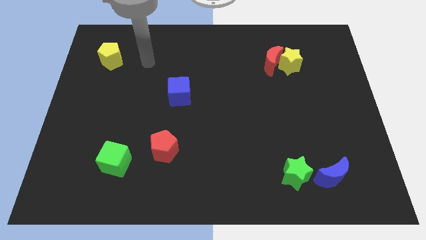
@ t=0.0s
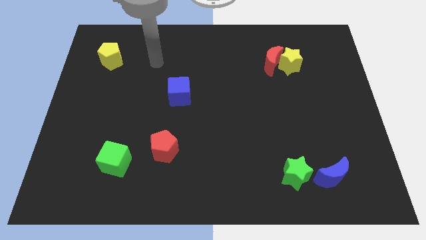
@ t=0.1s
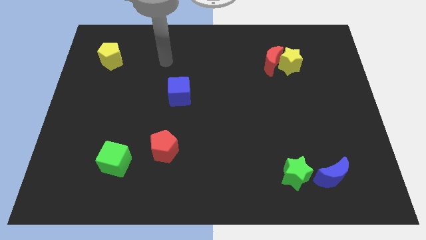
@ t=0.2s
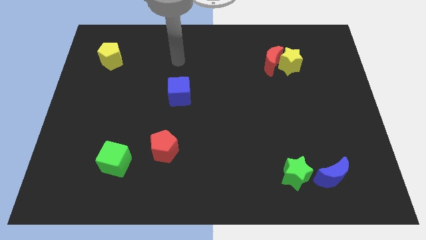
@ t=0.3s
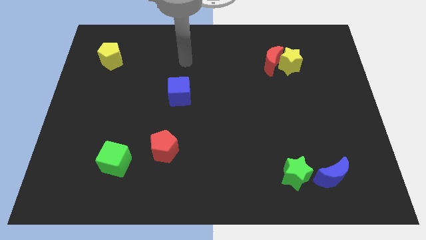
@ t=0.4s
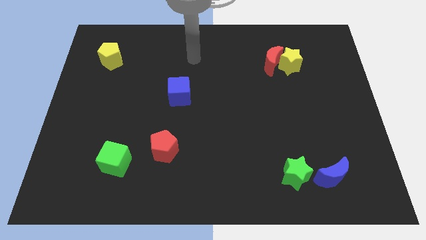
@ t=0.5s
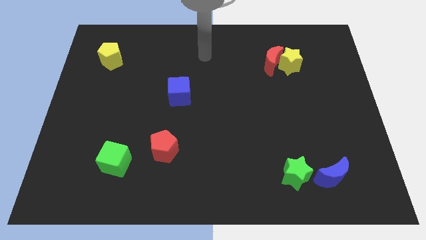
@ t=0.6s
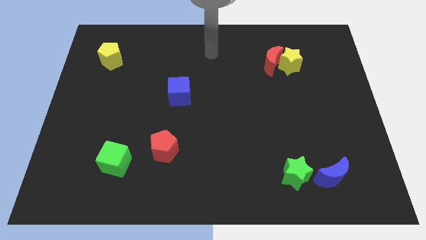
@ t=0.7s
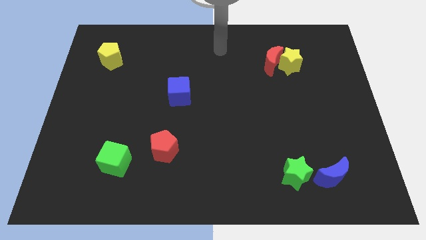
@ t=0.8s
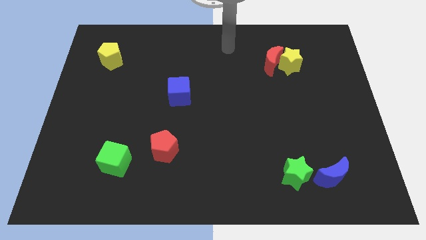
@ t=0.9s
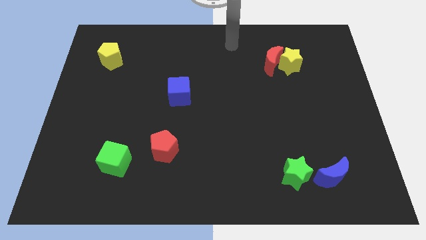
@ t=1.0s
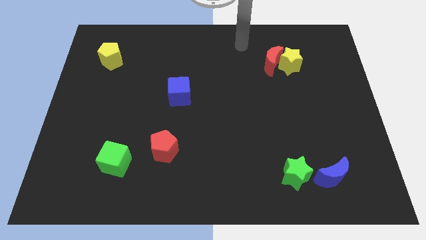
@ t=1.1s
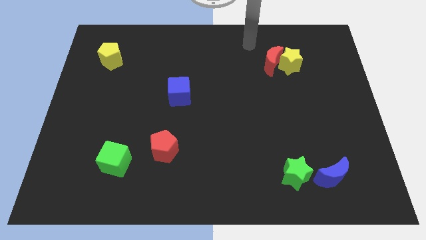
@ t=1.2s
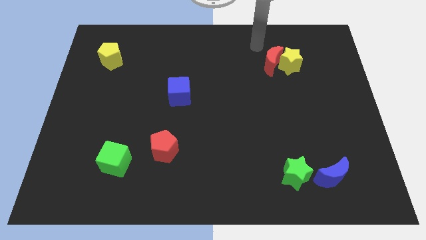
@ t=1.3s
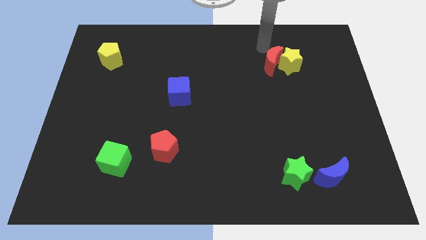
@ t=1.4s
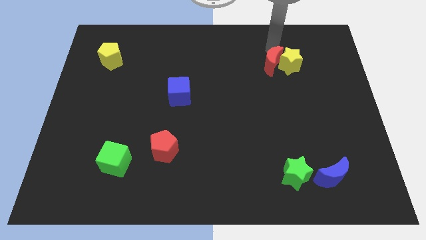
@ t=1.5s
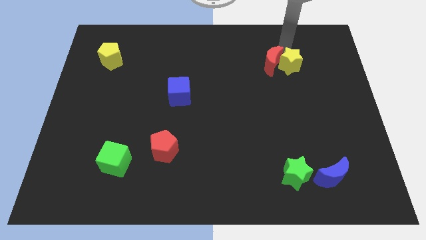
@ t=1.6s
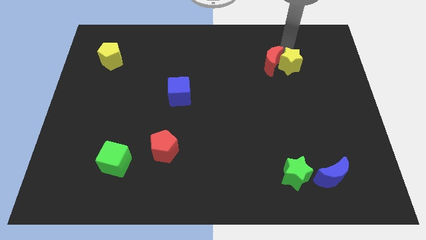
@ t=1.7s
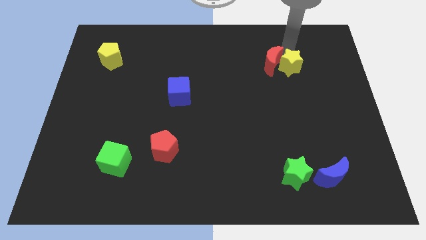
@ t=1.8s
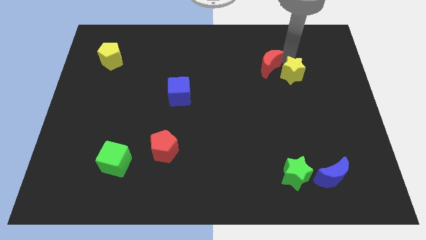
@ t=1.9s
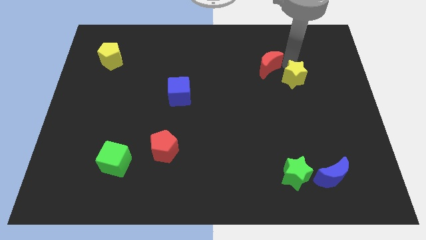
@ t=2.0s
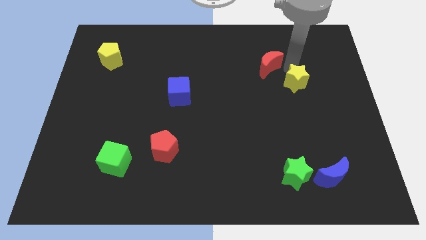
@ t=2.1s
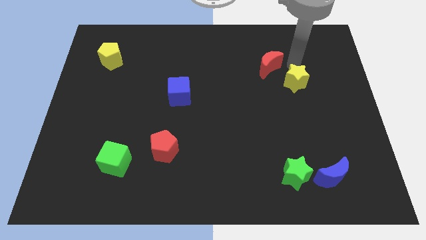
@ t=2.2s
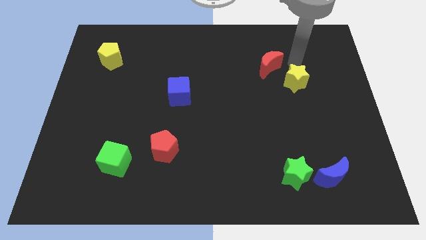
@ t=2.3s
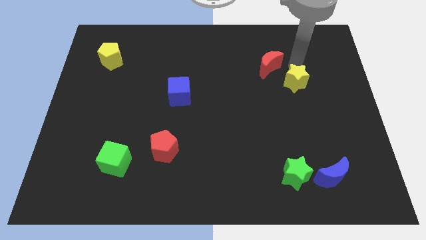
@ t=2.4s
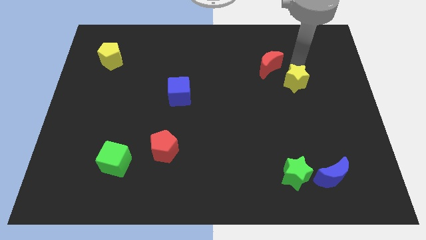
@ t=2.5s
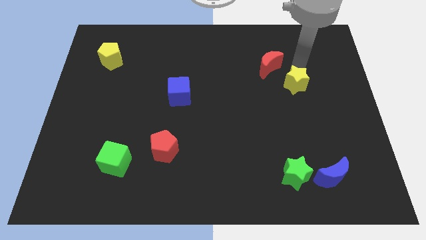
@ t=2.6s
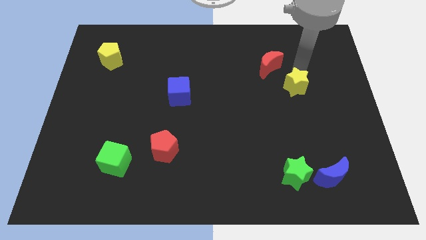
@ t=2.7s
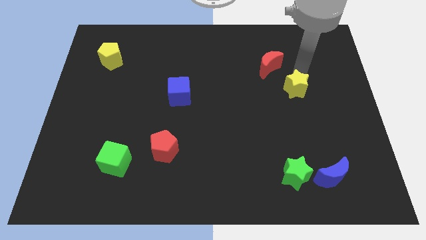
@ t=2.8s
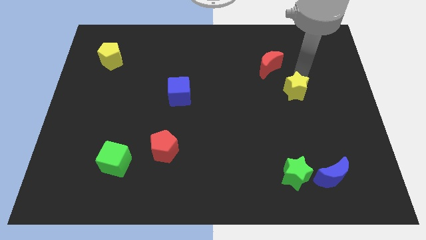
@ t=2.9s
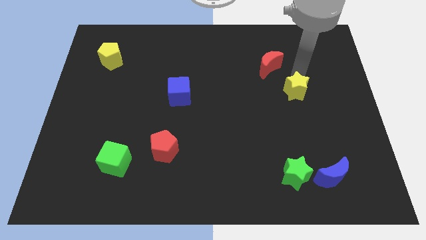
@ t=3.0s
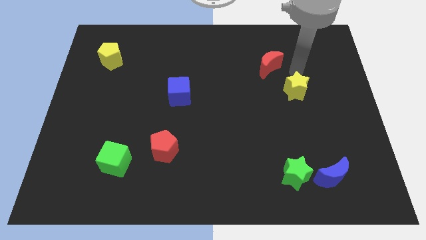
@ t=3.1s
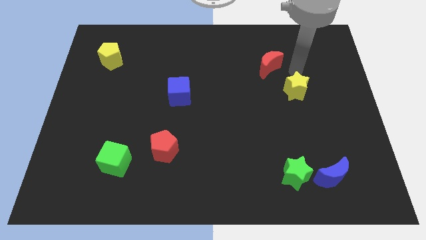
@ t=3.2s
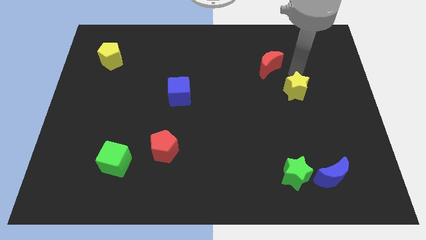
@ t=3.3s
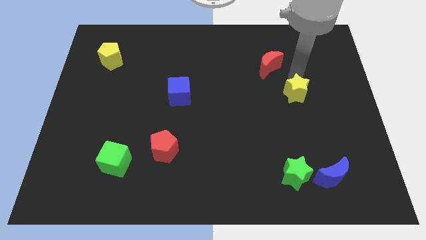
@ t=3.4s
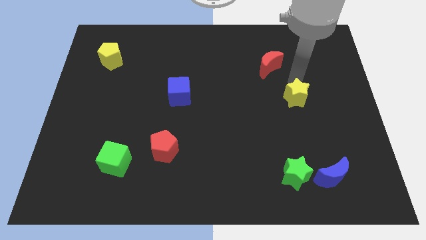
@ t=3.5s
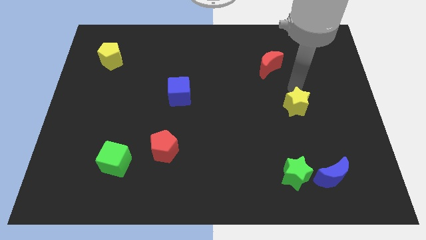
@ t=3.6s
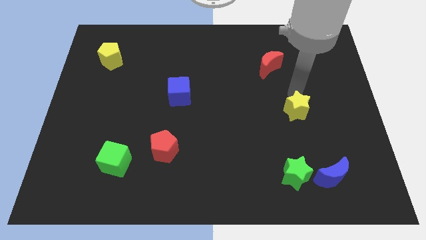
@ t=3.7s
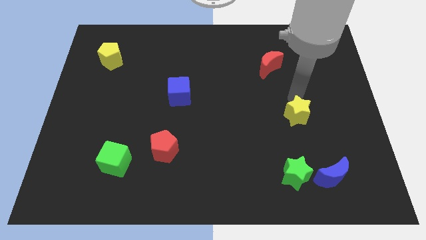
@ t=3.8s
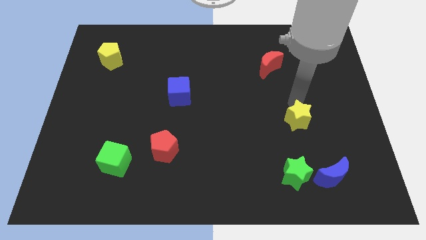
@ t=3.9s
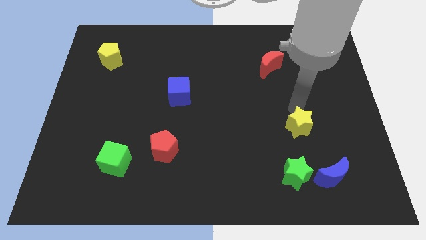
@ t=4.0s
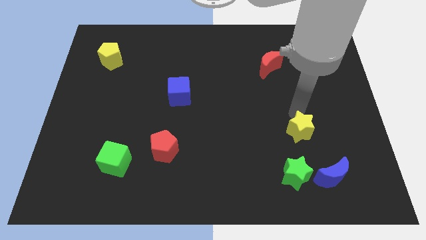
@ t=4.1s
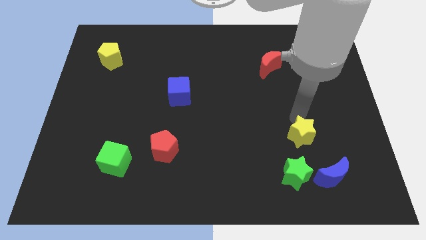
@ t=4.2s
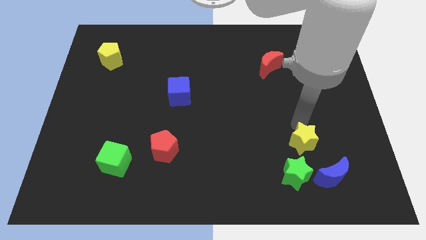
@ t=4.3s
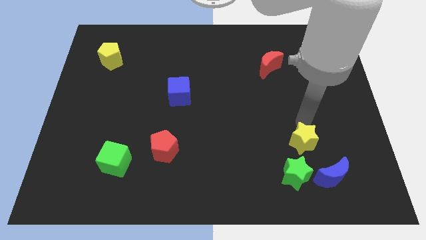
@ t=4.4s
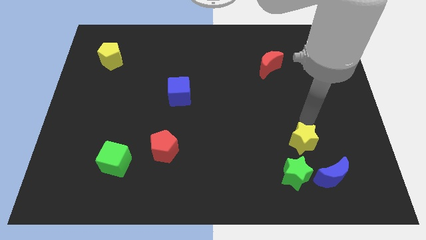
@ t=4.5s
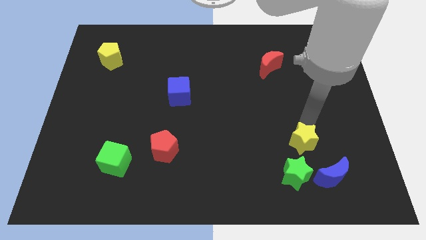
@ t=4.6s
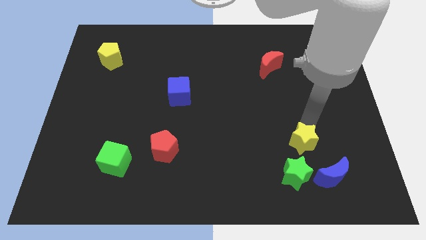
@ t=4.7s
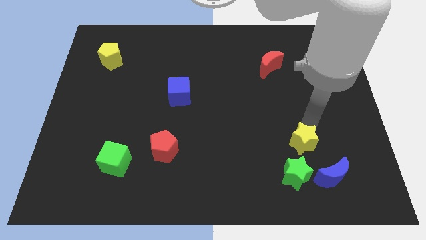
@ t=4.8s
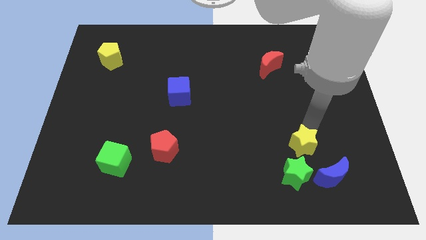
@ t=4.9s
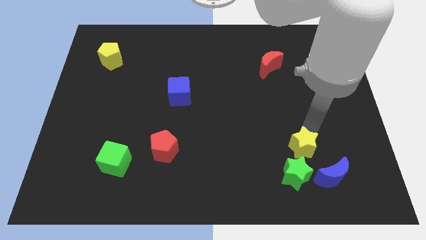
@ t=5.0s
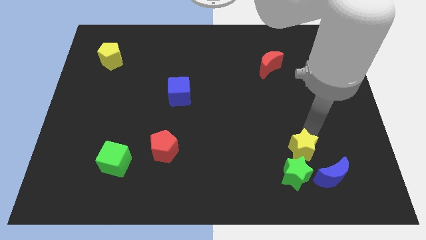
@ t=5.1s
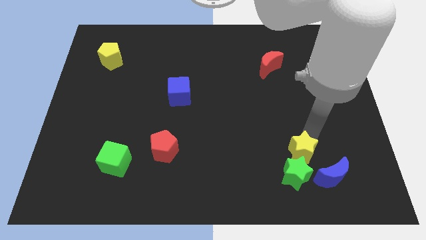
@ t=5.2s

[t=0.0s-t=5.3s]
push the yellow star towards the green star

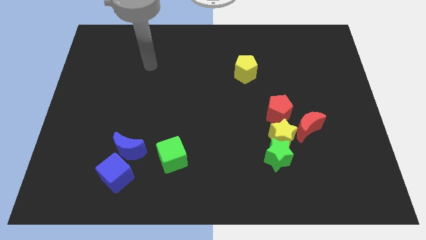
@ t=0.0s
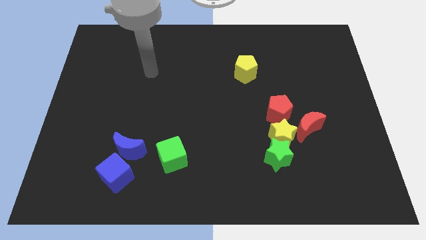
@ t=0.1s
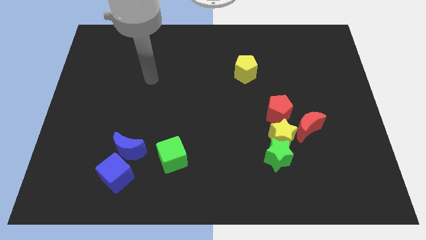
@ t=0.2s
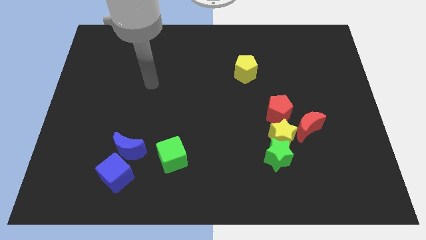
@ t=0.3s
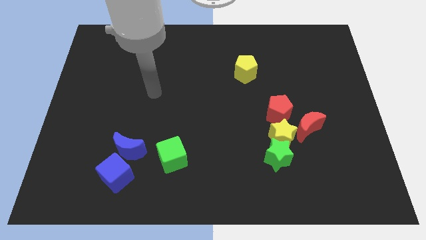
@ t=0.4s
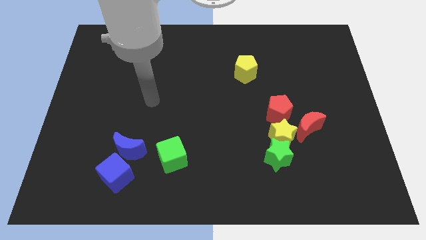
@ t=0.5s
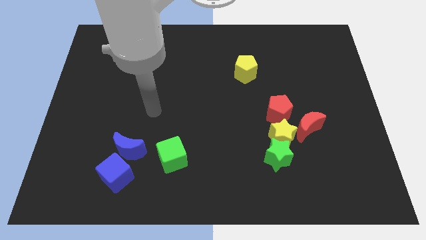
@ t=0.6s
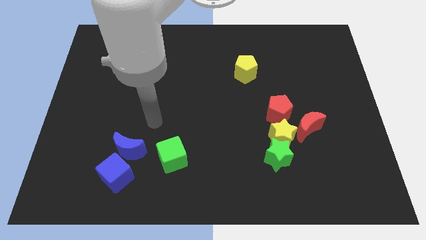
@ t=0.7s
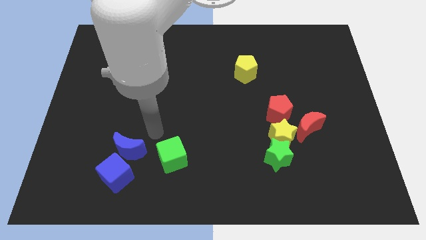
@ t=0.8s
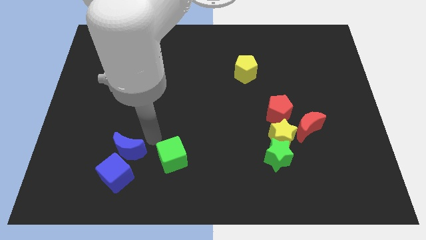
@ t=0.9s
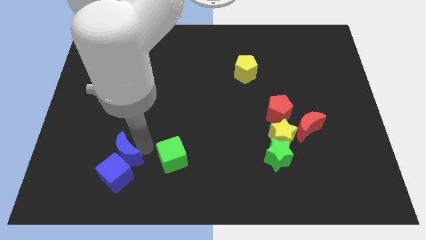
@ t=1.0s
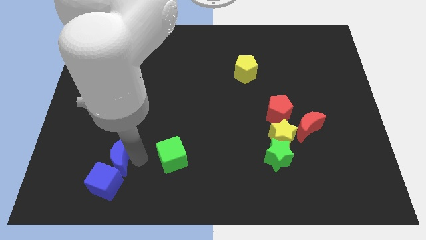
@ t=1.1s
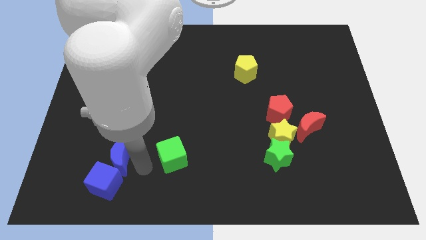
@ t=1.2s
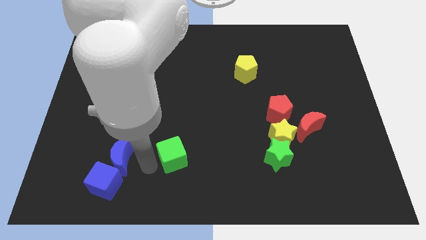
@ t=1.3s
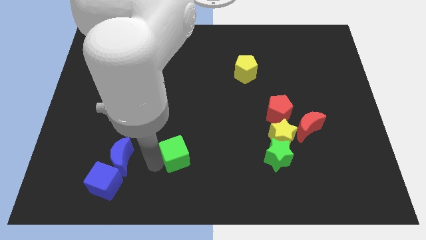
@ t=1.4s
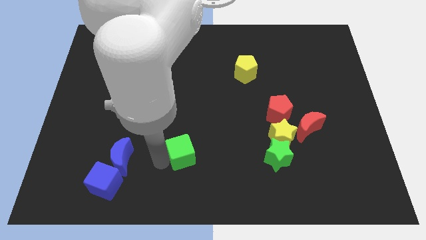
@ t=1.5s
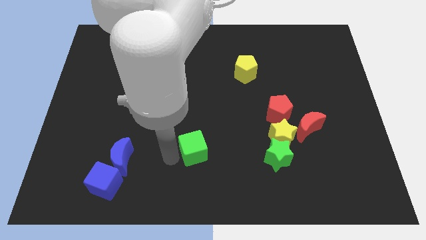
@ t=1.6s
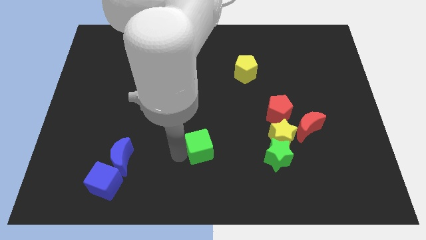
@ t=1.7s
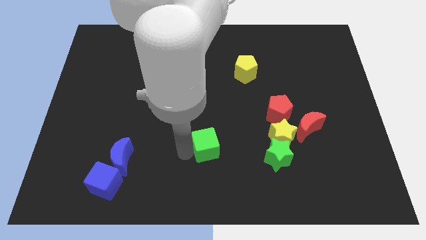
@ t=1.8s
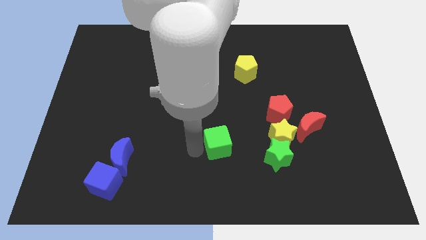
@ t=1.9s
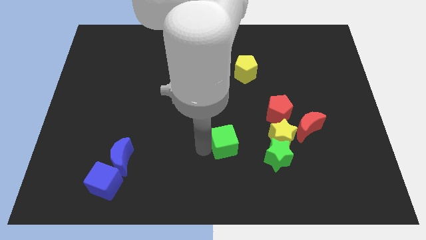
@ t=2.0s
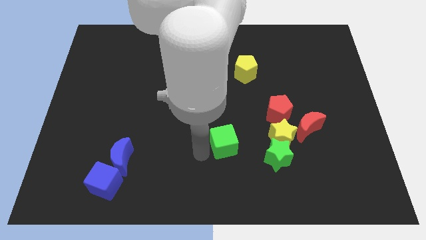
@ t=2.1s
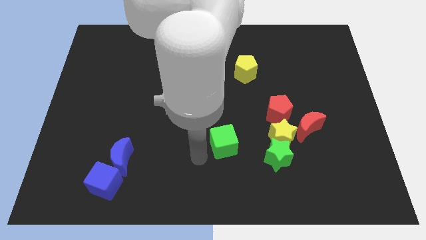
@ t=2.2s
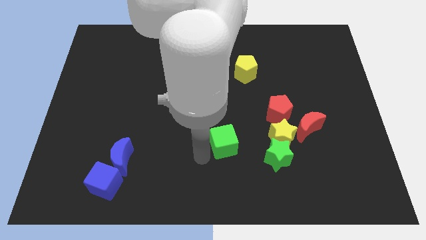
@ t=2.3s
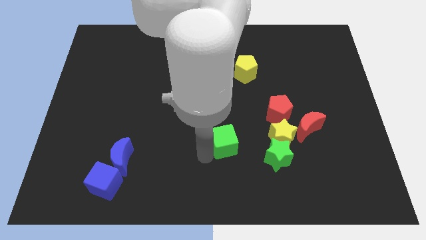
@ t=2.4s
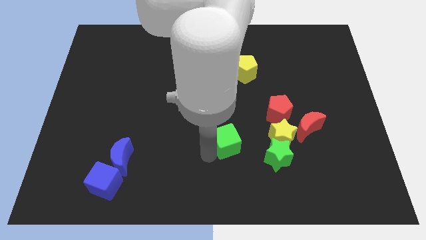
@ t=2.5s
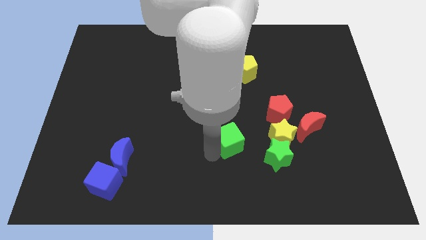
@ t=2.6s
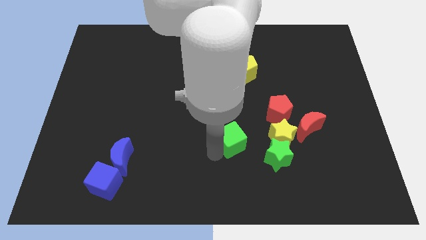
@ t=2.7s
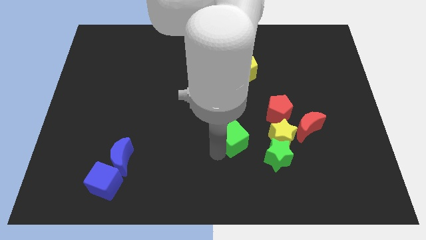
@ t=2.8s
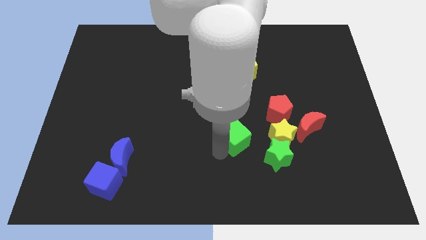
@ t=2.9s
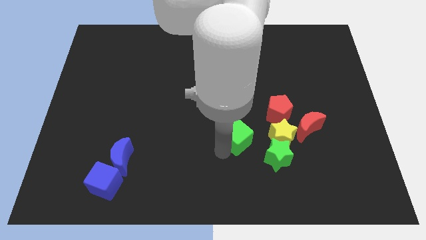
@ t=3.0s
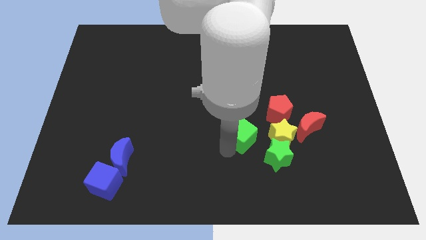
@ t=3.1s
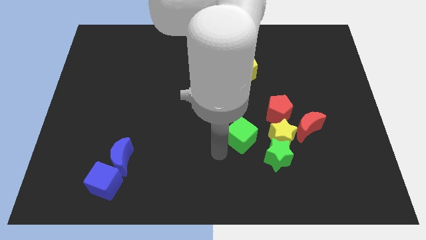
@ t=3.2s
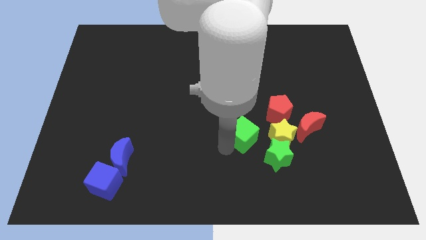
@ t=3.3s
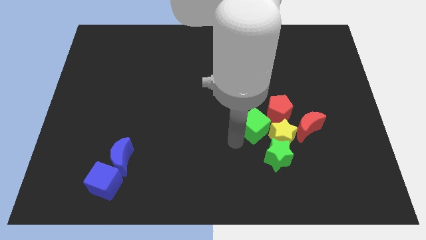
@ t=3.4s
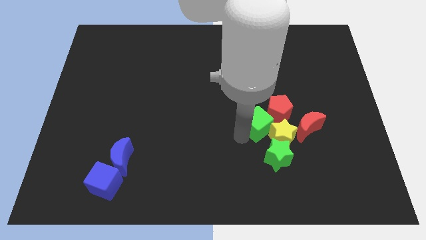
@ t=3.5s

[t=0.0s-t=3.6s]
move the green cube towards the red pentagon
